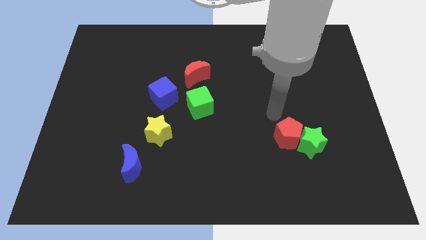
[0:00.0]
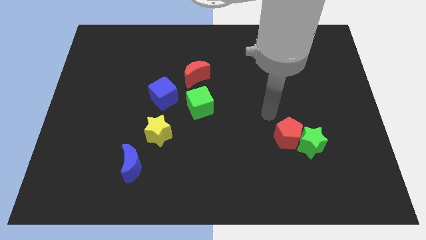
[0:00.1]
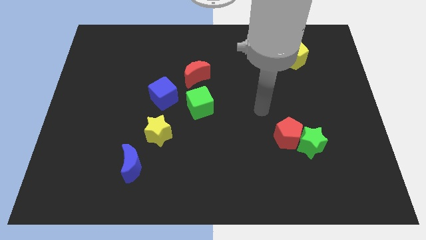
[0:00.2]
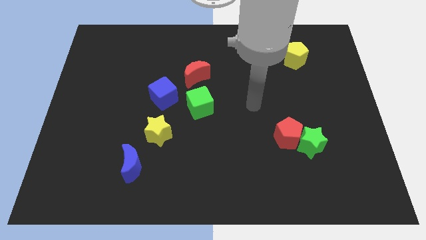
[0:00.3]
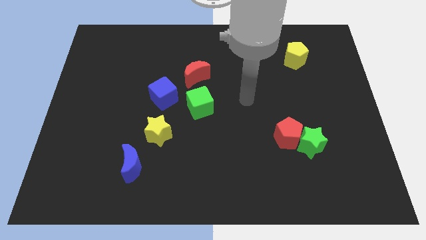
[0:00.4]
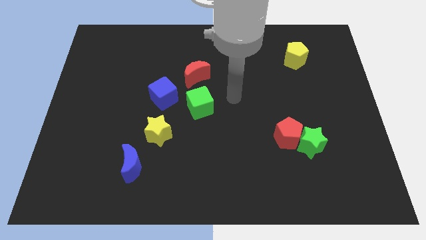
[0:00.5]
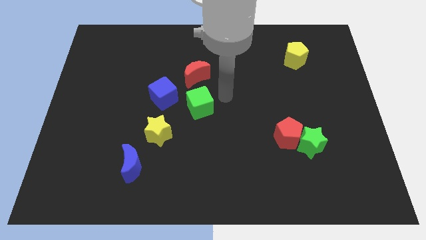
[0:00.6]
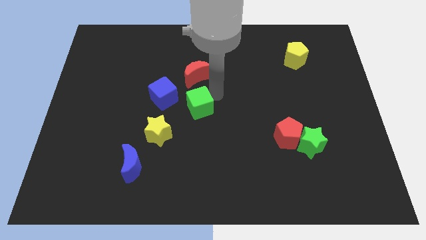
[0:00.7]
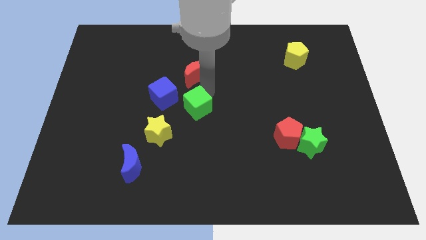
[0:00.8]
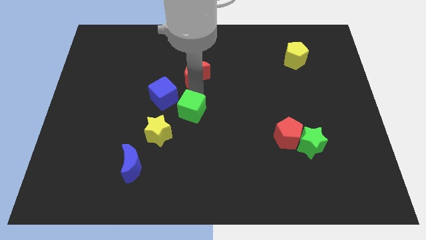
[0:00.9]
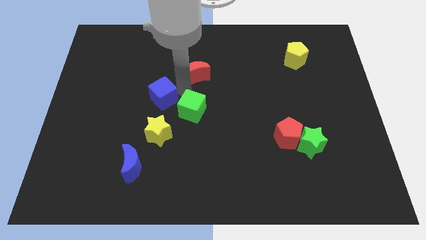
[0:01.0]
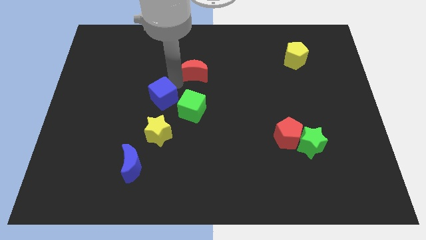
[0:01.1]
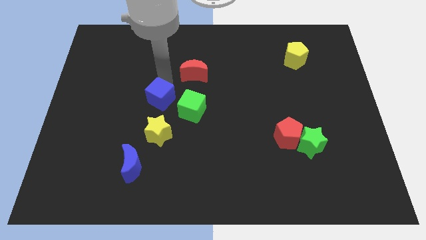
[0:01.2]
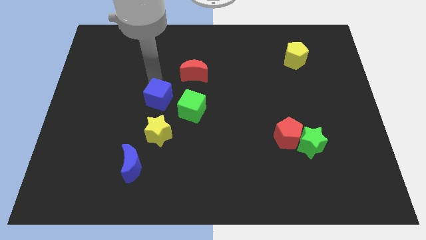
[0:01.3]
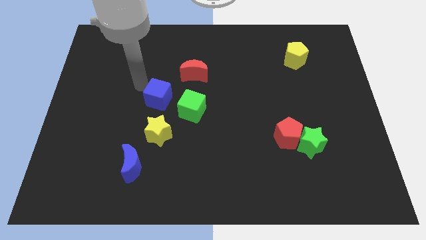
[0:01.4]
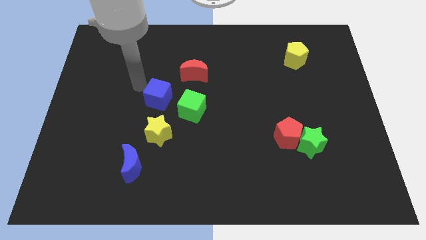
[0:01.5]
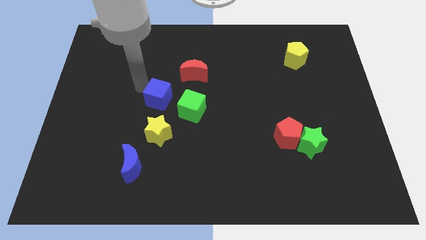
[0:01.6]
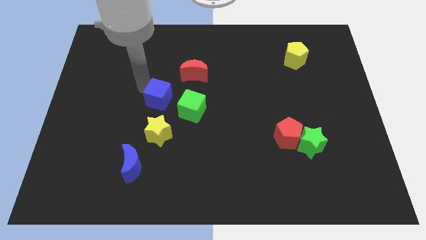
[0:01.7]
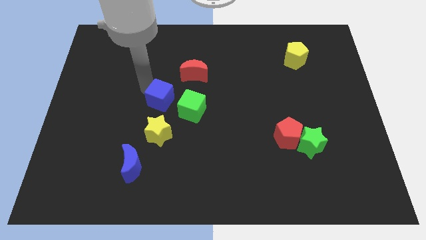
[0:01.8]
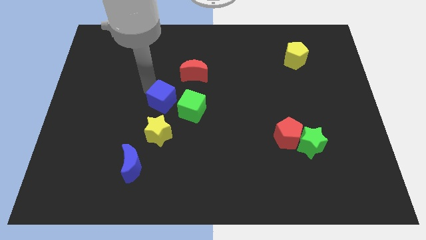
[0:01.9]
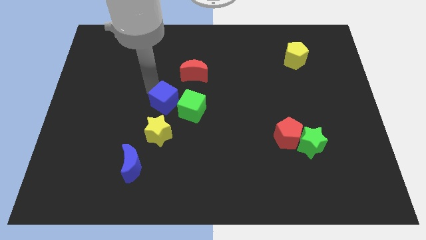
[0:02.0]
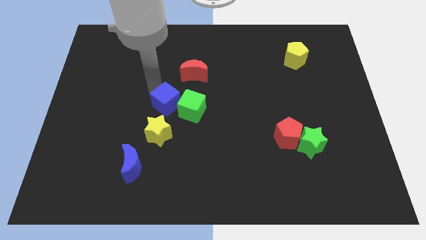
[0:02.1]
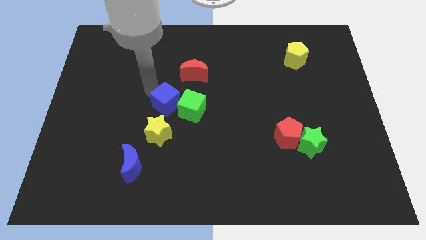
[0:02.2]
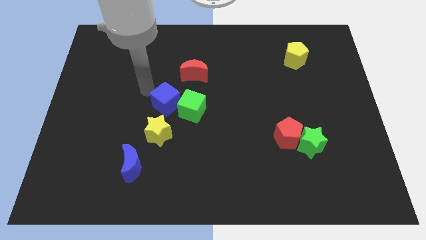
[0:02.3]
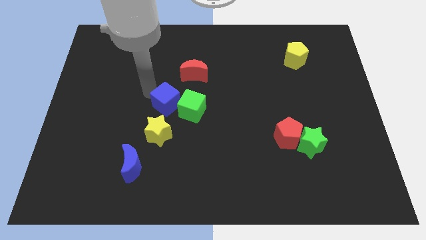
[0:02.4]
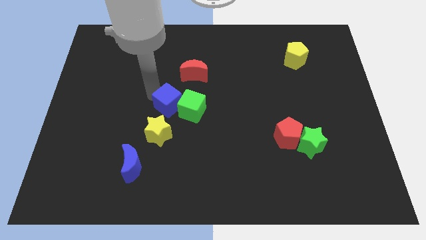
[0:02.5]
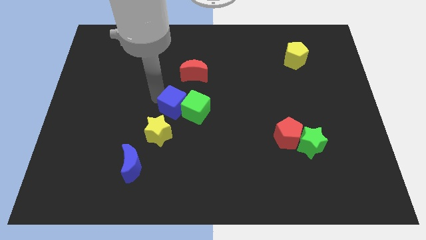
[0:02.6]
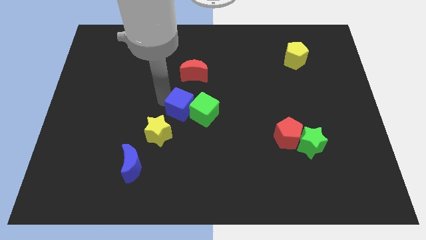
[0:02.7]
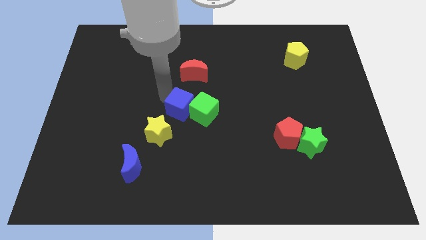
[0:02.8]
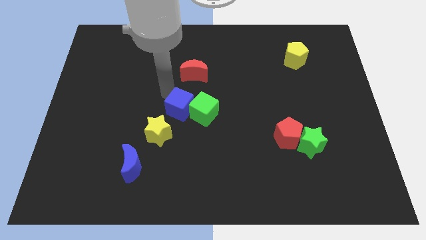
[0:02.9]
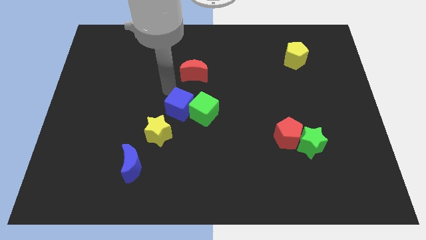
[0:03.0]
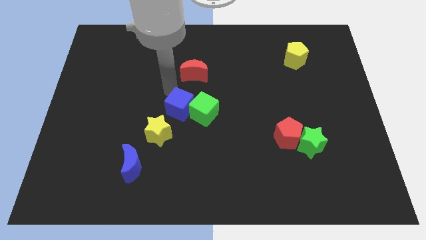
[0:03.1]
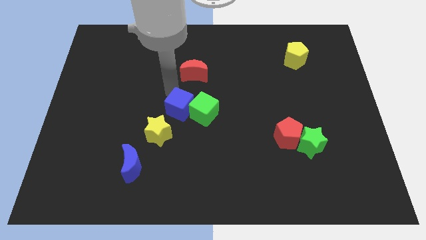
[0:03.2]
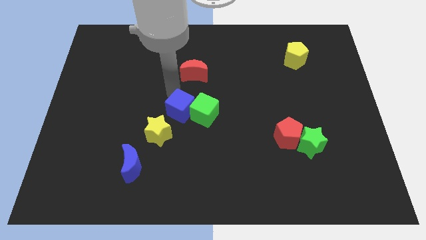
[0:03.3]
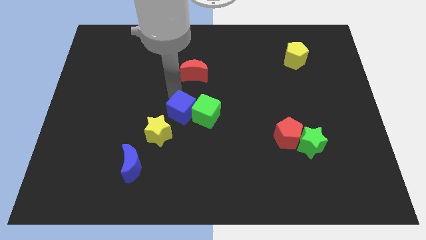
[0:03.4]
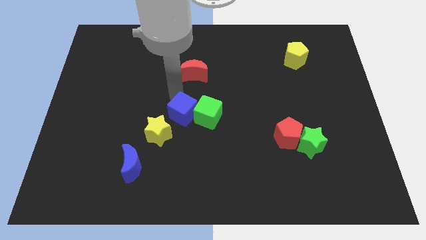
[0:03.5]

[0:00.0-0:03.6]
slightly move the blue cube down and then right

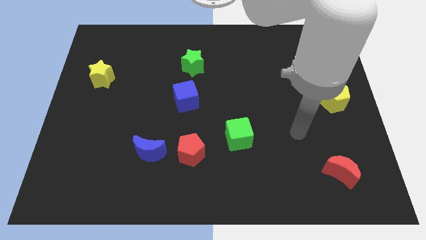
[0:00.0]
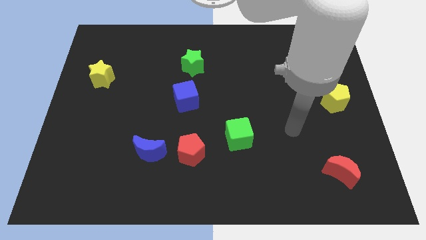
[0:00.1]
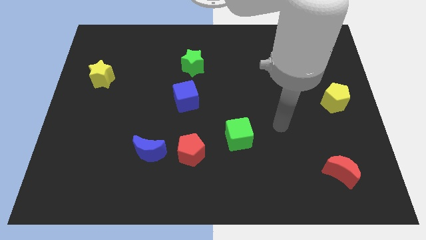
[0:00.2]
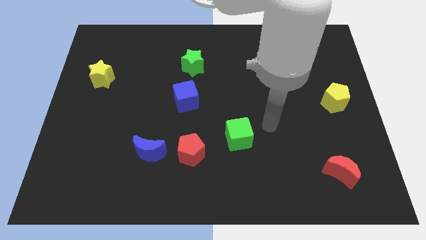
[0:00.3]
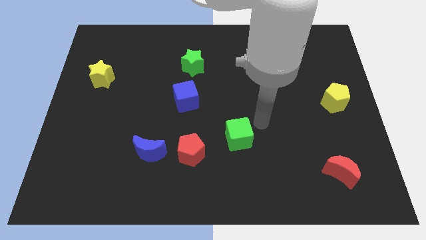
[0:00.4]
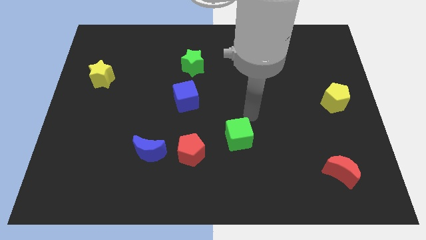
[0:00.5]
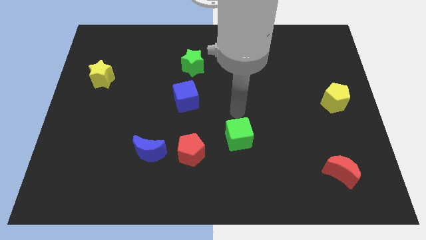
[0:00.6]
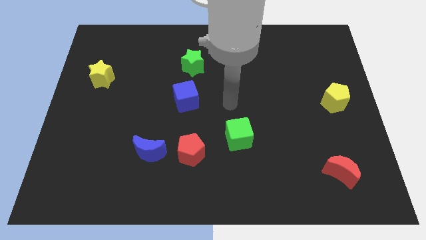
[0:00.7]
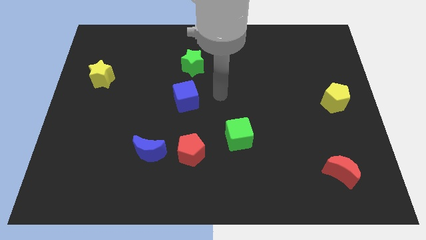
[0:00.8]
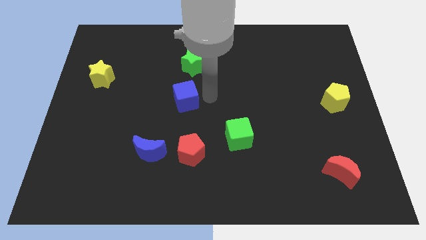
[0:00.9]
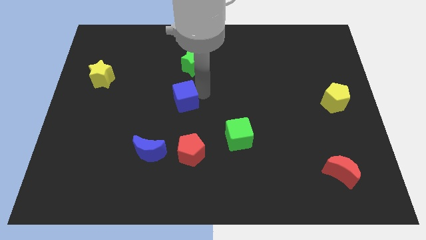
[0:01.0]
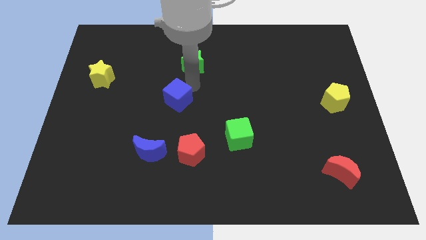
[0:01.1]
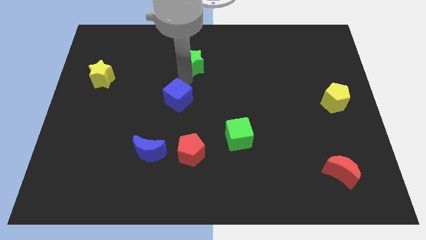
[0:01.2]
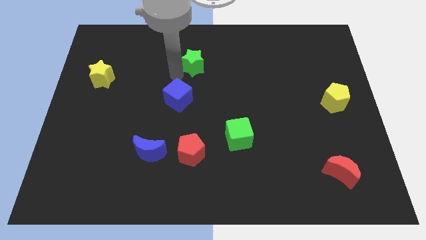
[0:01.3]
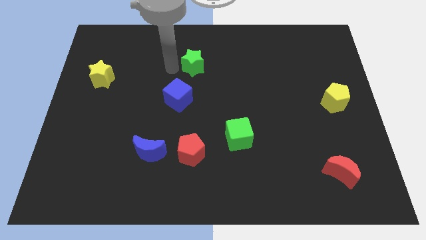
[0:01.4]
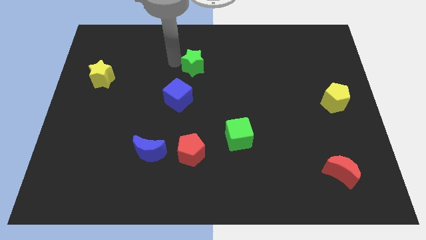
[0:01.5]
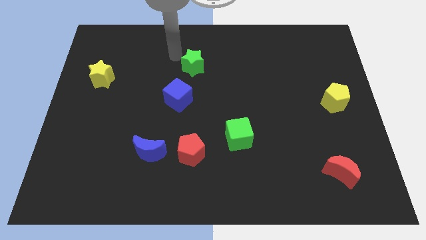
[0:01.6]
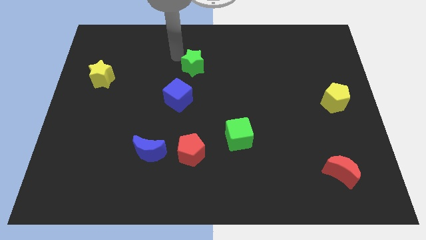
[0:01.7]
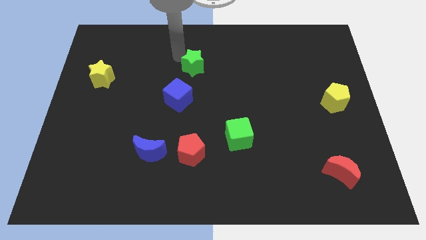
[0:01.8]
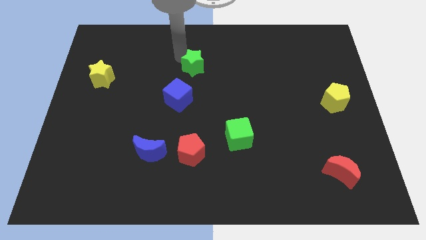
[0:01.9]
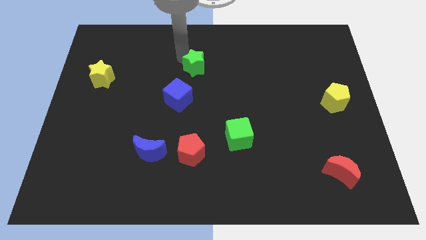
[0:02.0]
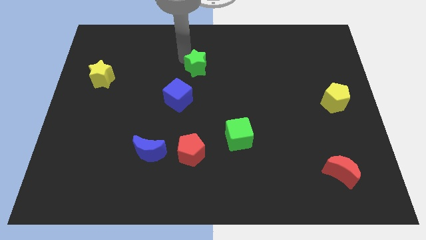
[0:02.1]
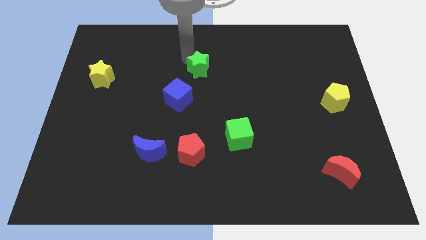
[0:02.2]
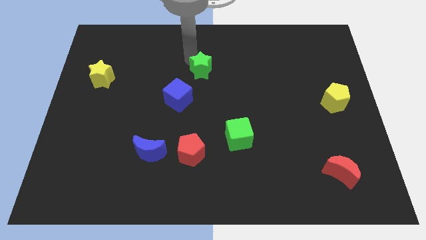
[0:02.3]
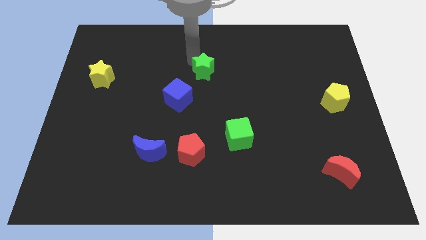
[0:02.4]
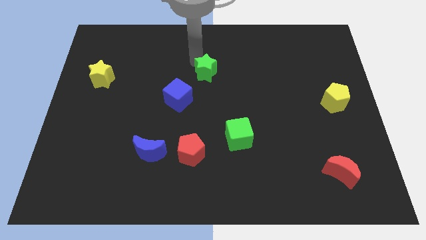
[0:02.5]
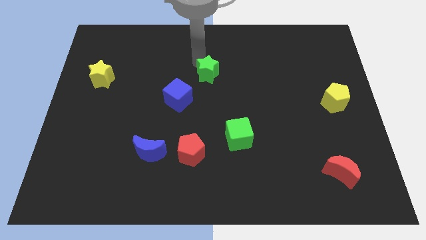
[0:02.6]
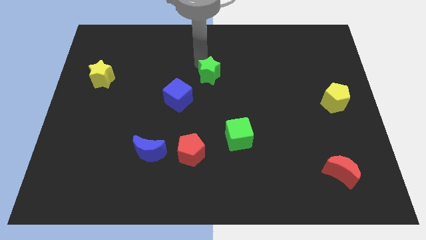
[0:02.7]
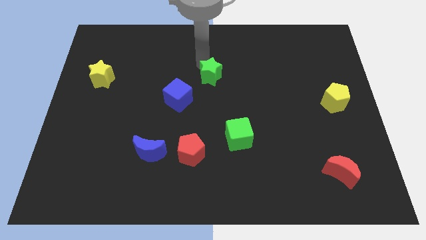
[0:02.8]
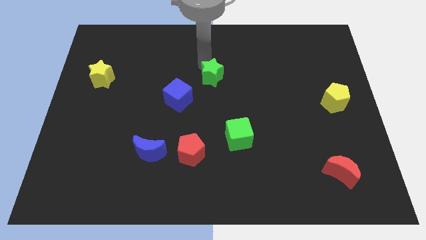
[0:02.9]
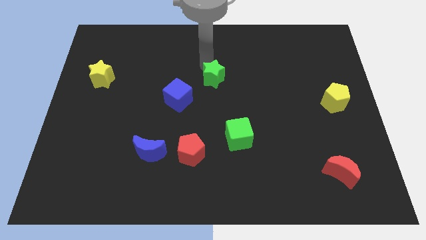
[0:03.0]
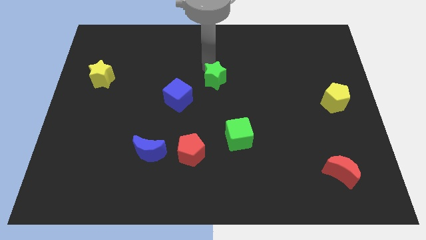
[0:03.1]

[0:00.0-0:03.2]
slide the green star somewhat down and then to the right

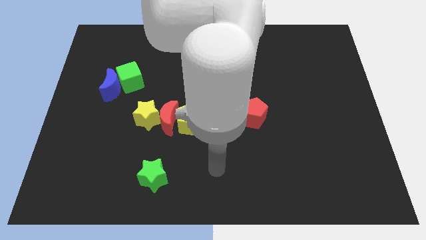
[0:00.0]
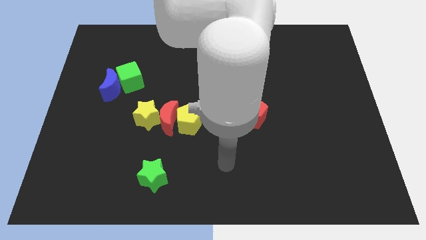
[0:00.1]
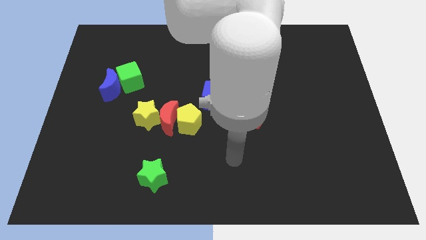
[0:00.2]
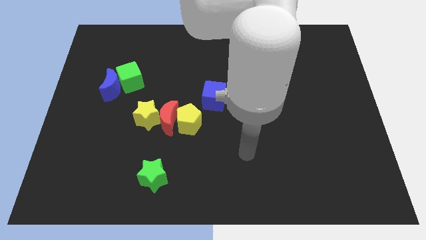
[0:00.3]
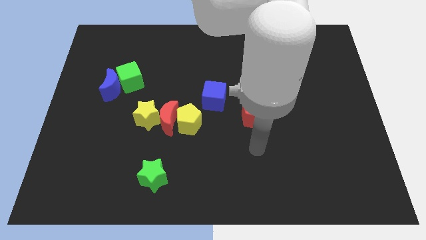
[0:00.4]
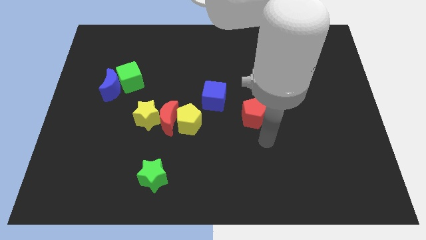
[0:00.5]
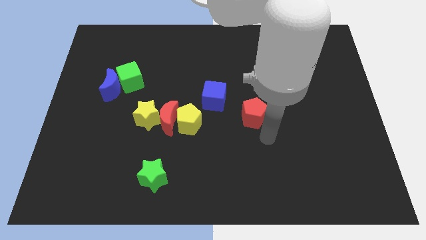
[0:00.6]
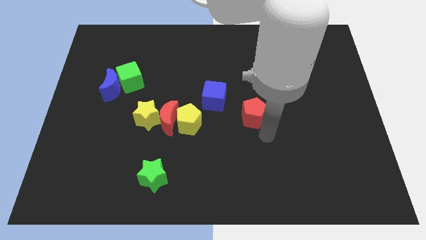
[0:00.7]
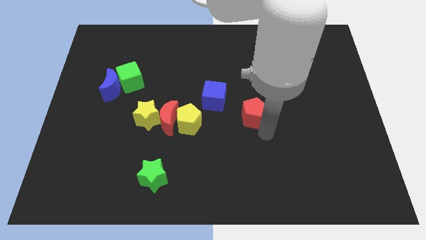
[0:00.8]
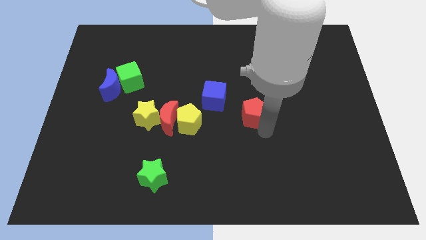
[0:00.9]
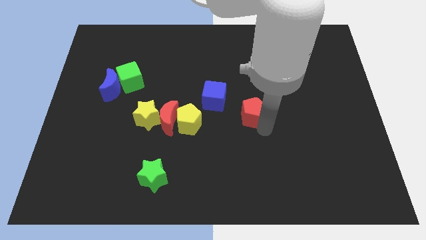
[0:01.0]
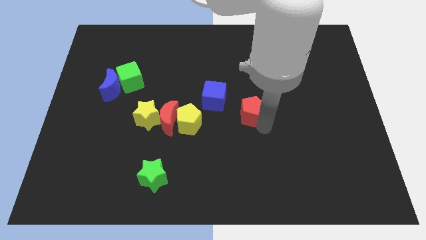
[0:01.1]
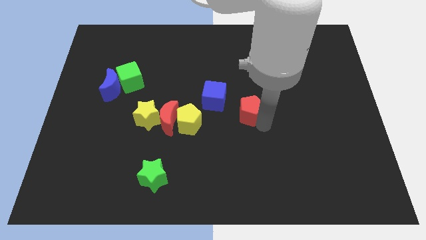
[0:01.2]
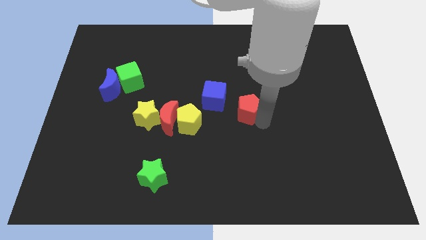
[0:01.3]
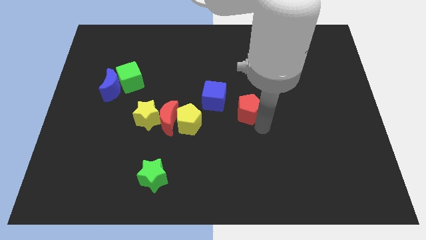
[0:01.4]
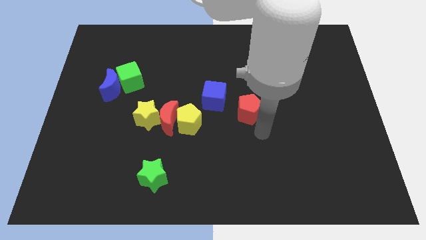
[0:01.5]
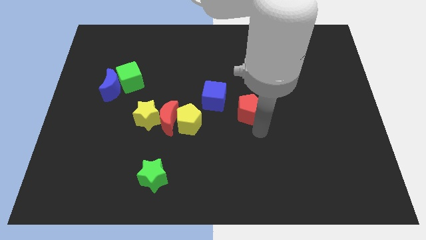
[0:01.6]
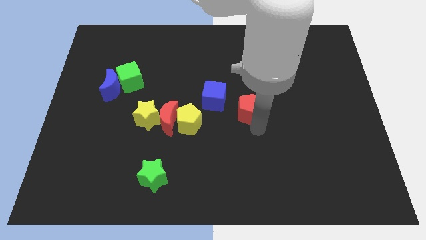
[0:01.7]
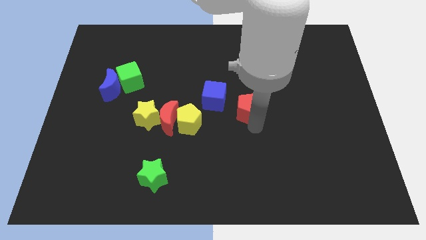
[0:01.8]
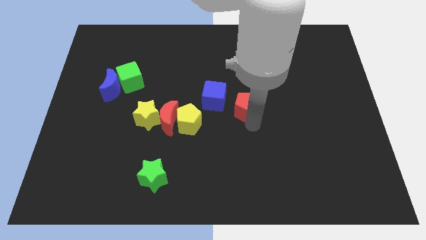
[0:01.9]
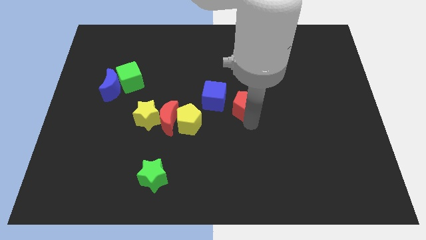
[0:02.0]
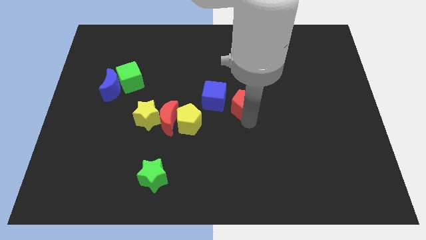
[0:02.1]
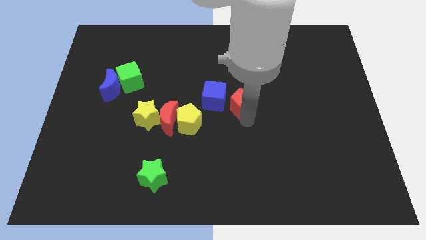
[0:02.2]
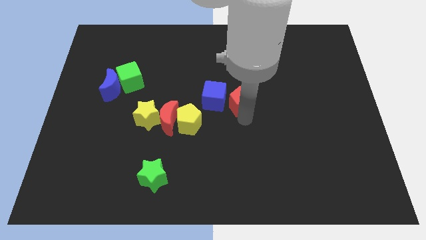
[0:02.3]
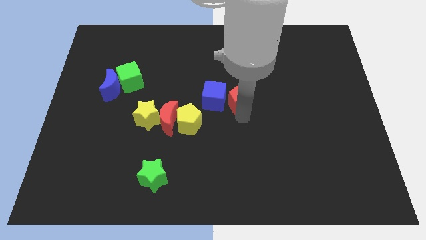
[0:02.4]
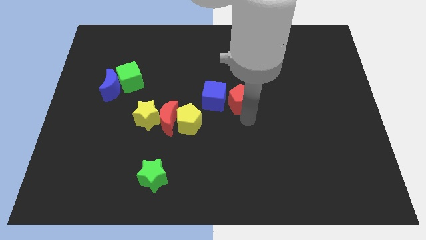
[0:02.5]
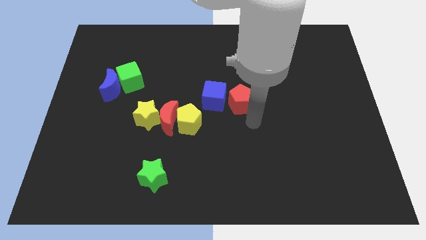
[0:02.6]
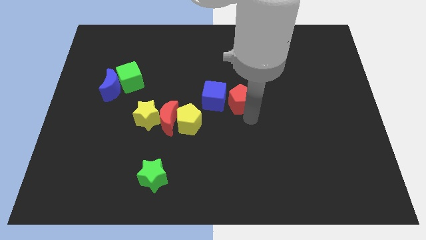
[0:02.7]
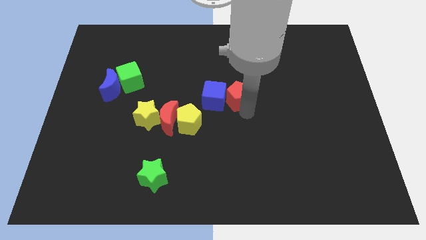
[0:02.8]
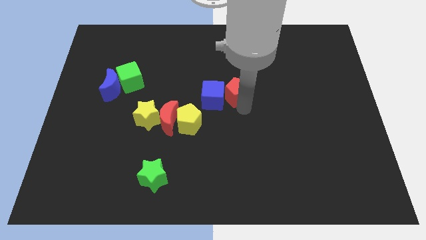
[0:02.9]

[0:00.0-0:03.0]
move the red pentagon up and then to the left slightly
